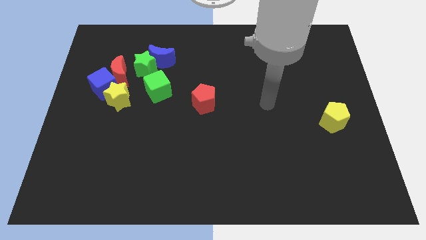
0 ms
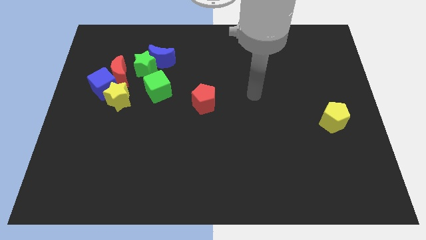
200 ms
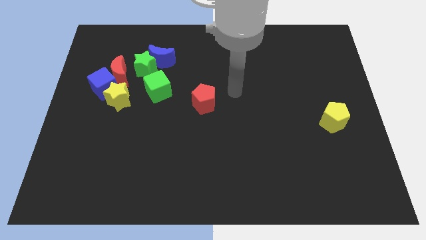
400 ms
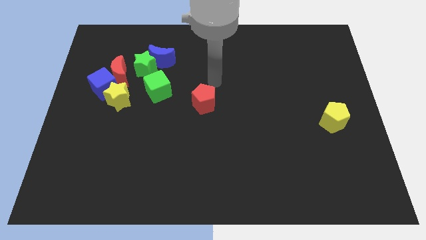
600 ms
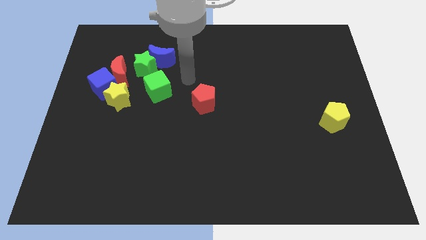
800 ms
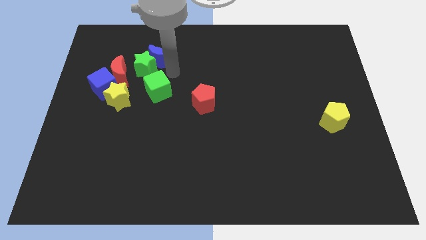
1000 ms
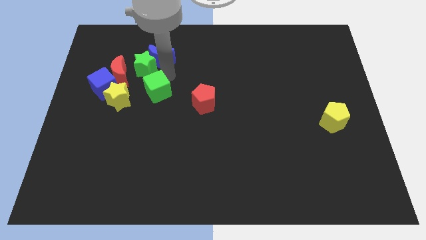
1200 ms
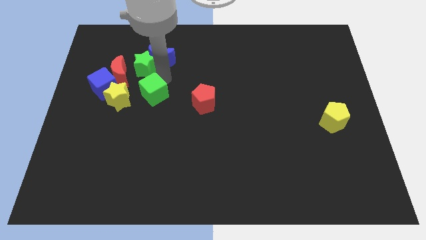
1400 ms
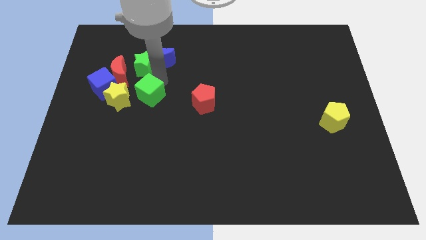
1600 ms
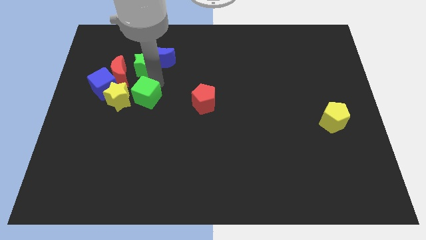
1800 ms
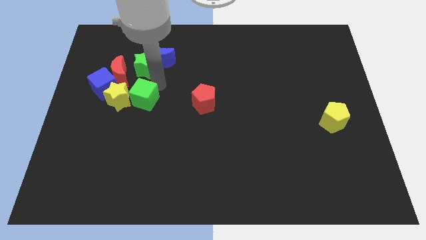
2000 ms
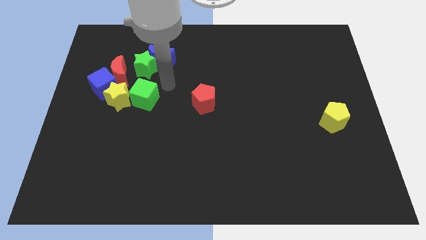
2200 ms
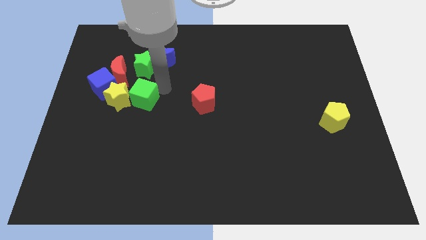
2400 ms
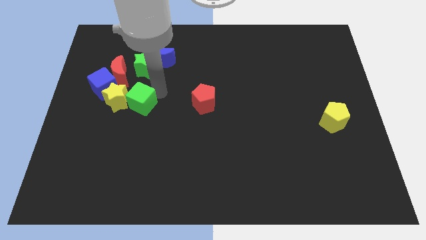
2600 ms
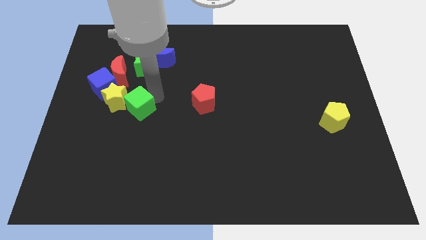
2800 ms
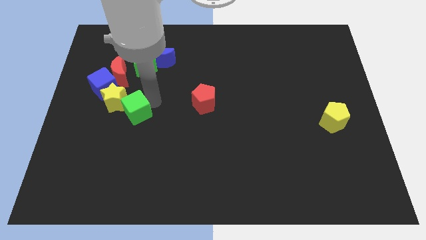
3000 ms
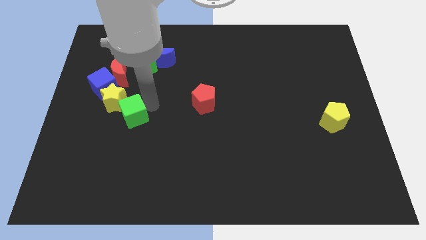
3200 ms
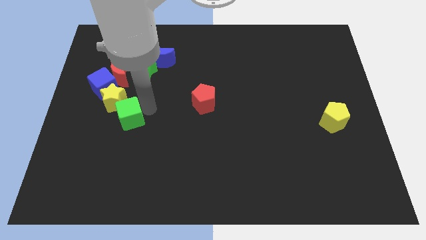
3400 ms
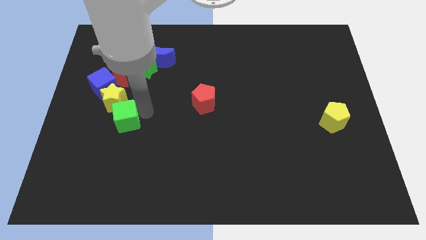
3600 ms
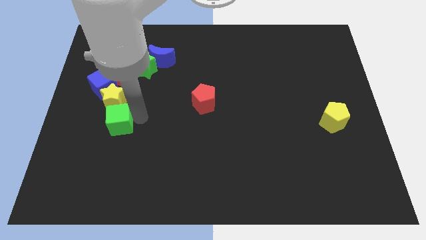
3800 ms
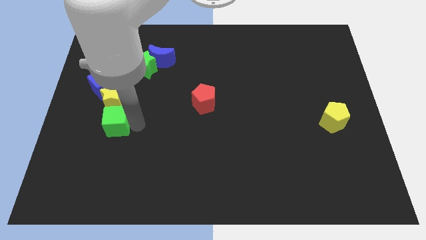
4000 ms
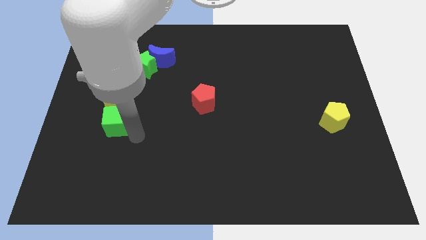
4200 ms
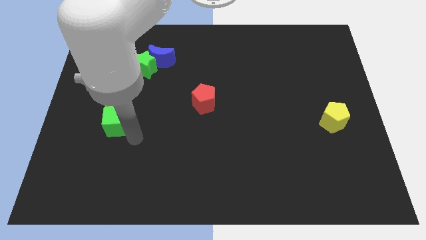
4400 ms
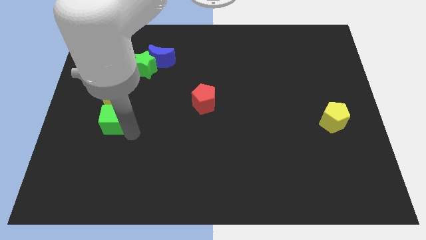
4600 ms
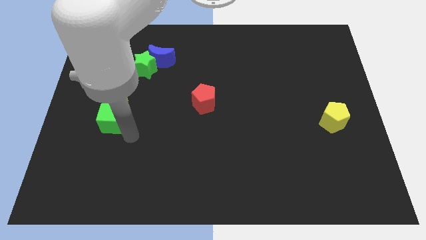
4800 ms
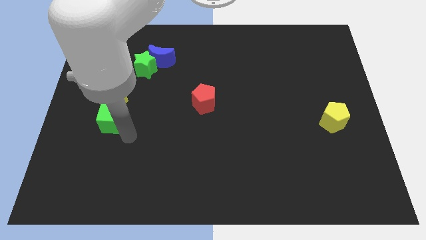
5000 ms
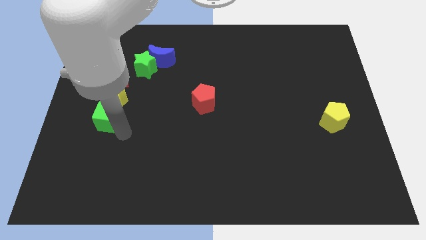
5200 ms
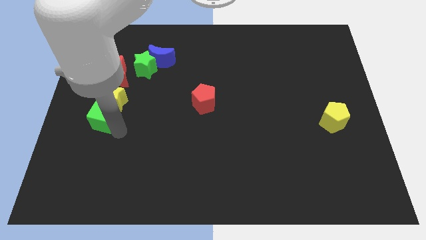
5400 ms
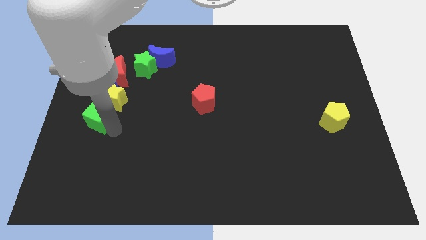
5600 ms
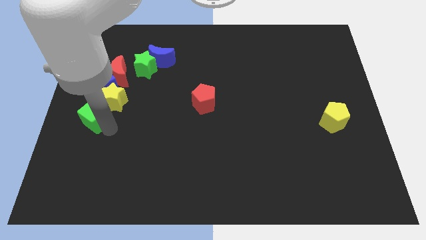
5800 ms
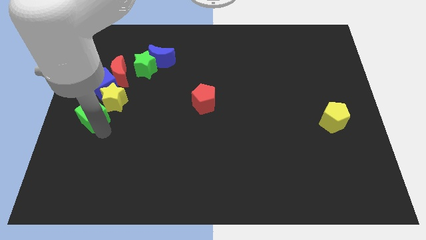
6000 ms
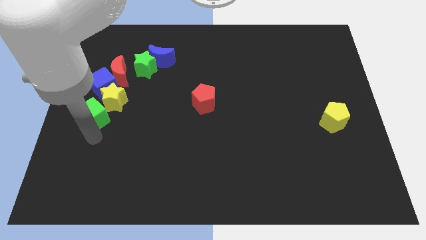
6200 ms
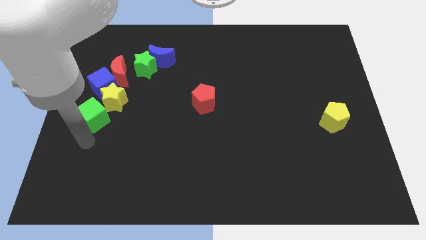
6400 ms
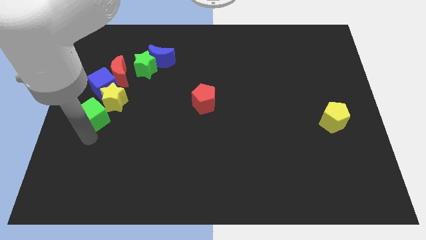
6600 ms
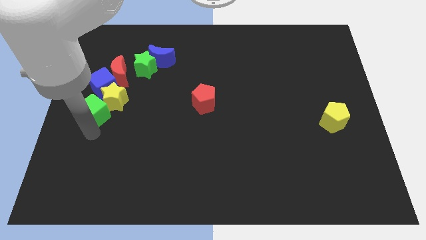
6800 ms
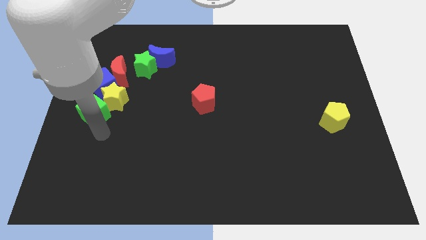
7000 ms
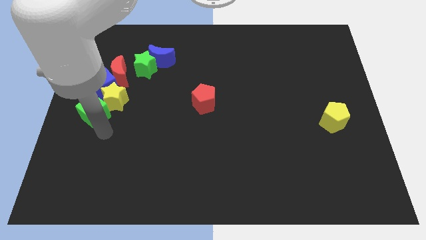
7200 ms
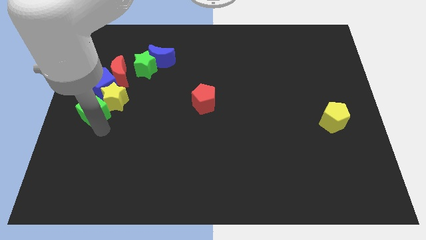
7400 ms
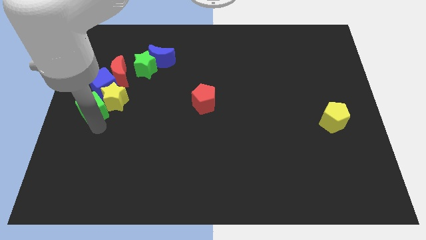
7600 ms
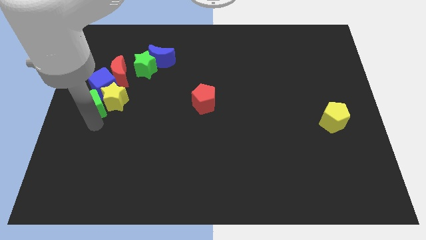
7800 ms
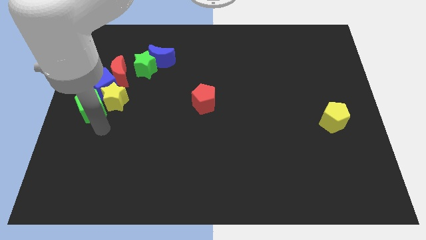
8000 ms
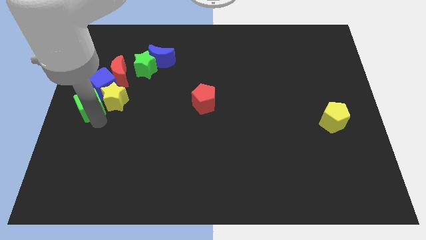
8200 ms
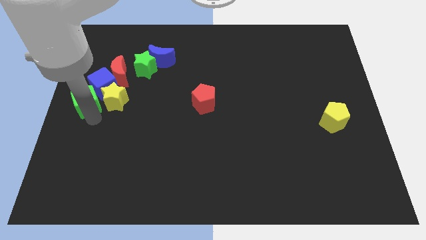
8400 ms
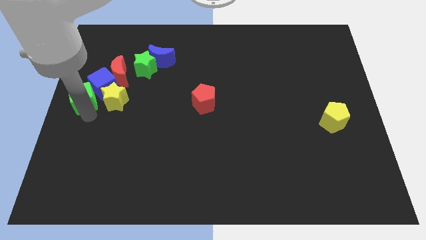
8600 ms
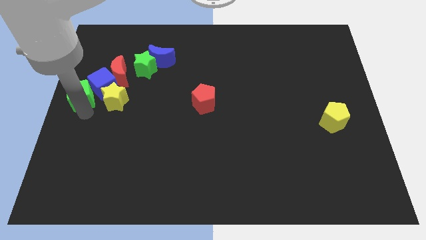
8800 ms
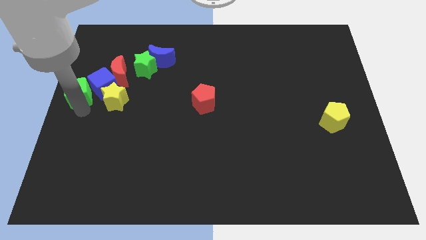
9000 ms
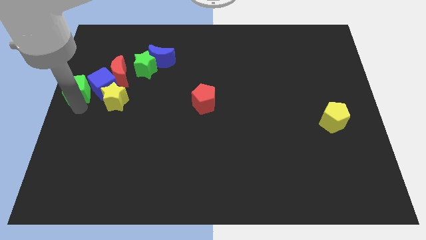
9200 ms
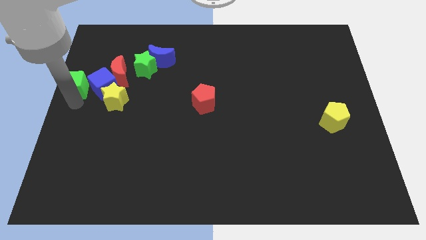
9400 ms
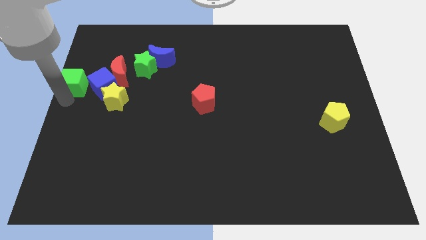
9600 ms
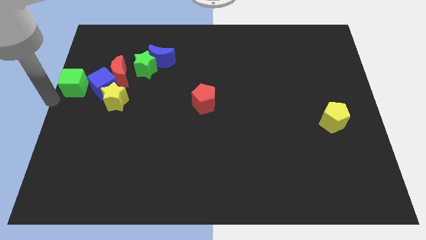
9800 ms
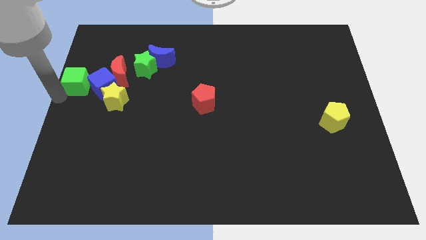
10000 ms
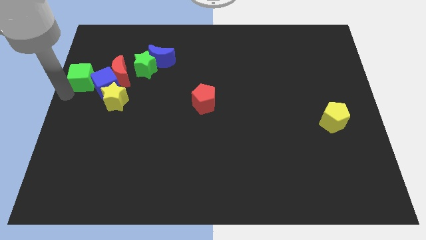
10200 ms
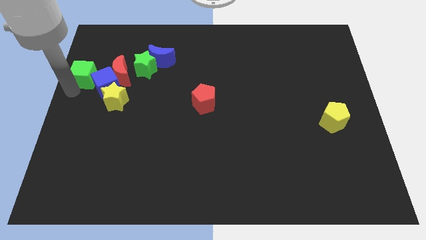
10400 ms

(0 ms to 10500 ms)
slide the green cube to the left of the green star

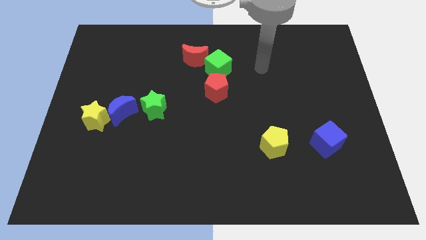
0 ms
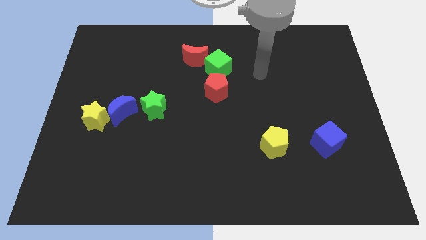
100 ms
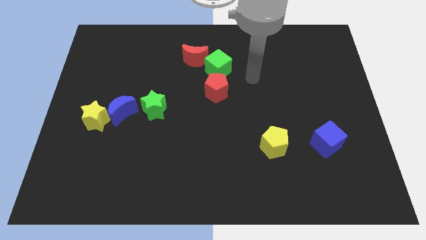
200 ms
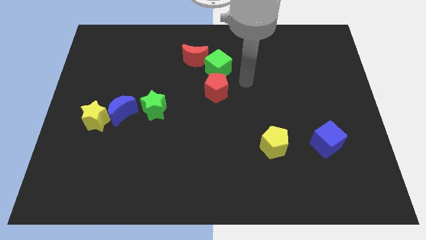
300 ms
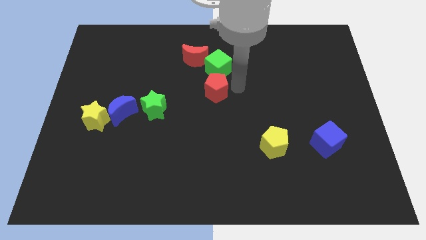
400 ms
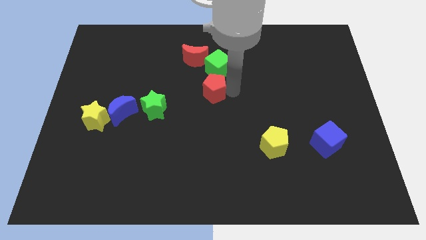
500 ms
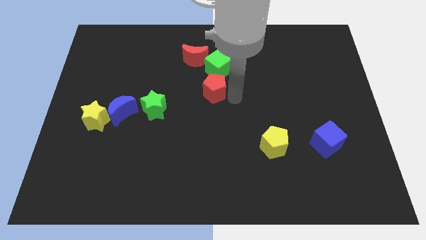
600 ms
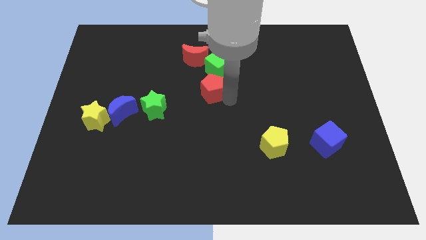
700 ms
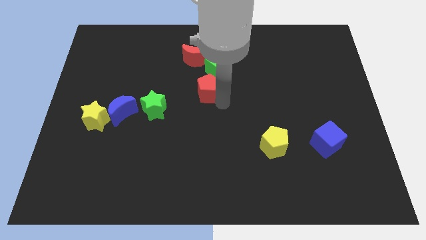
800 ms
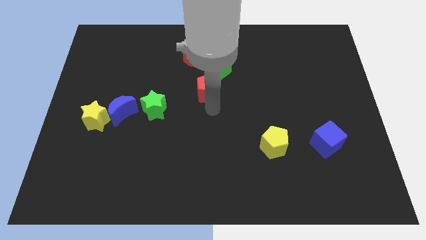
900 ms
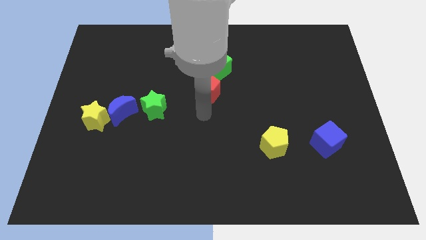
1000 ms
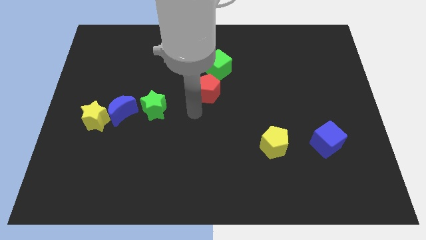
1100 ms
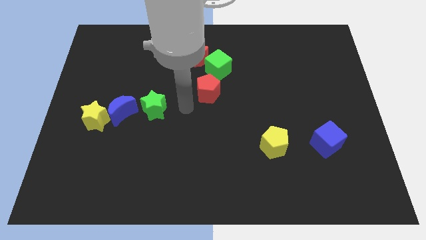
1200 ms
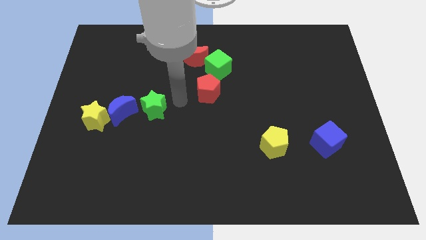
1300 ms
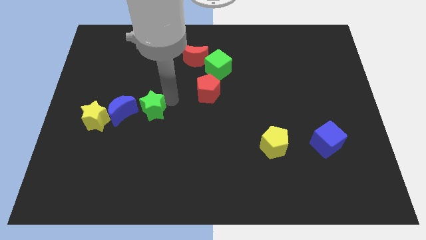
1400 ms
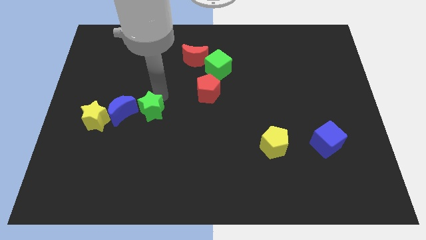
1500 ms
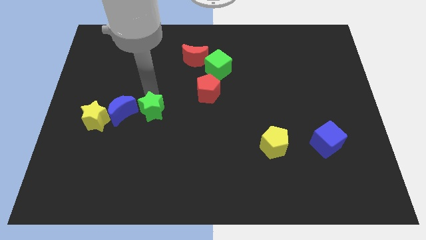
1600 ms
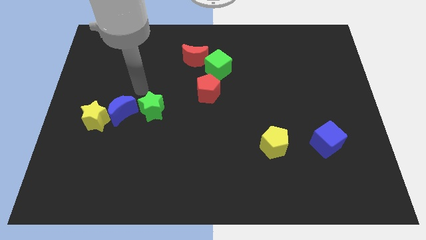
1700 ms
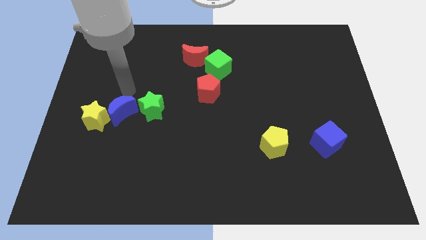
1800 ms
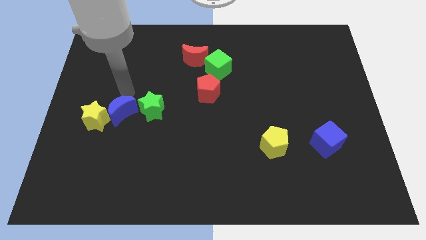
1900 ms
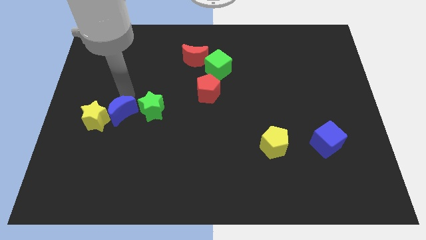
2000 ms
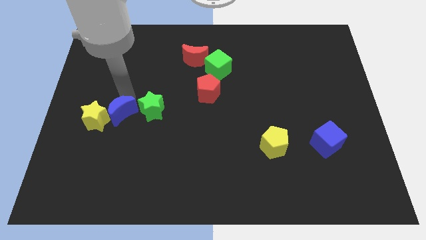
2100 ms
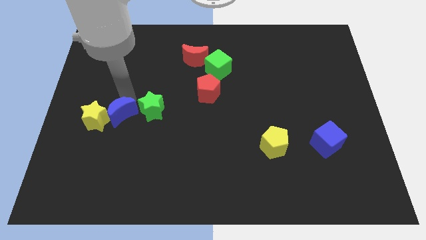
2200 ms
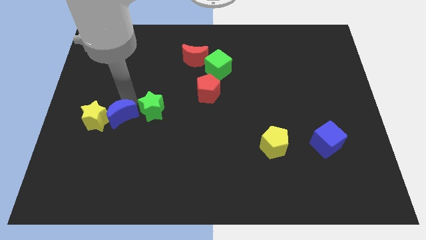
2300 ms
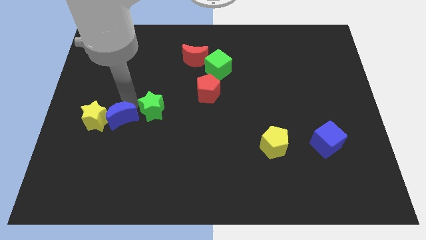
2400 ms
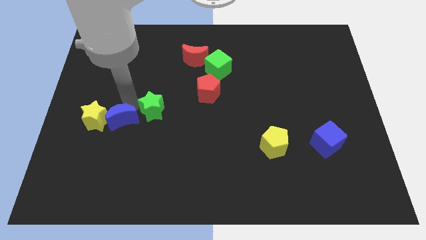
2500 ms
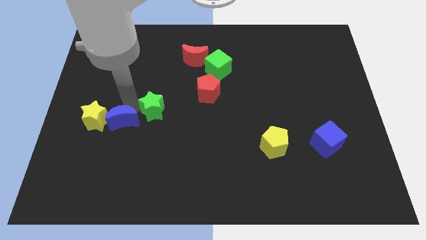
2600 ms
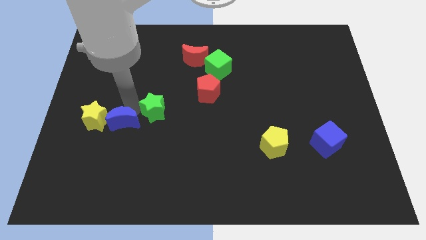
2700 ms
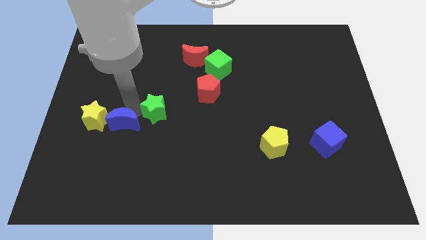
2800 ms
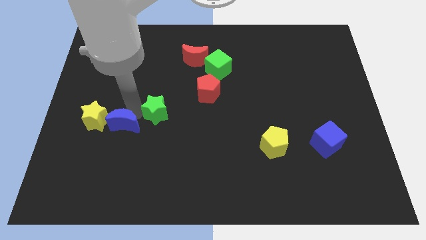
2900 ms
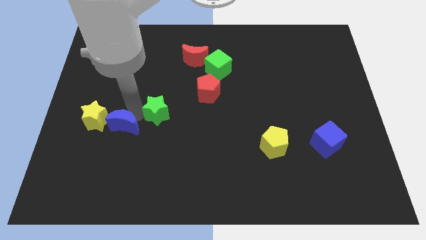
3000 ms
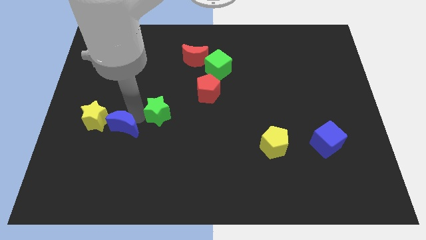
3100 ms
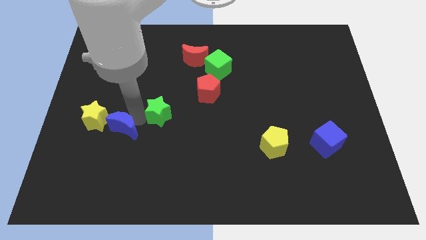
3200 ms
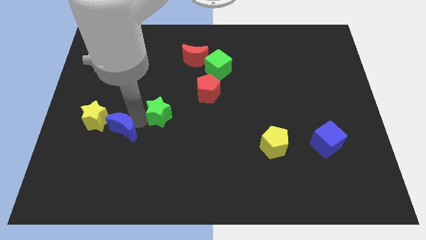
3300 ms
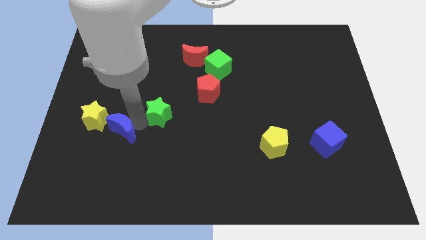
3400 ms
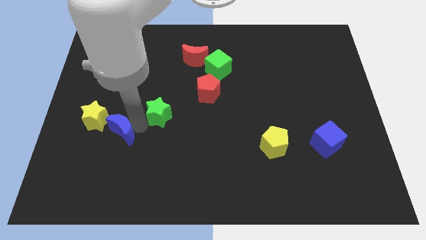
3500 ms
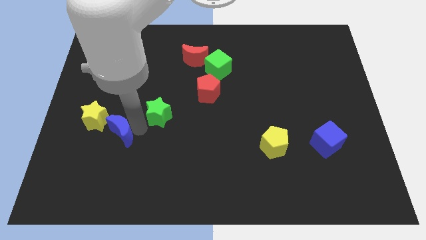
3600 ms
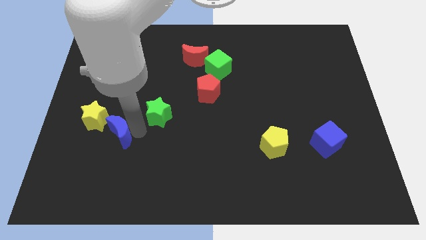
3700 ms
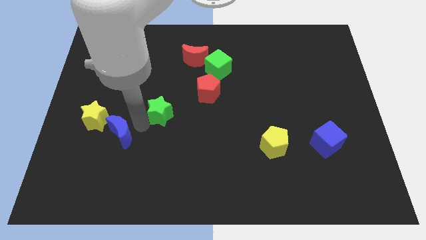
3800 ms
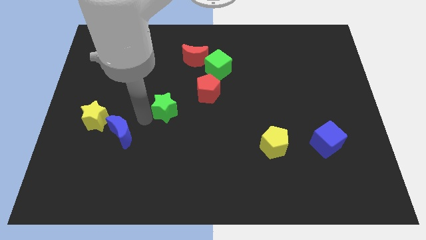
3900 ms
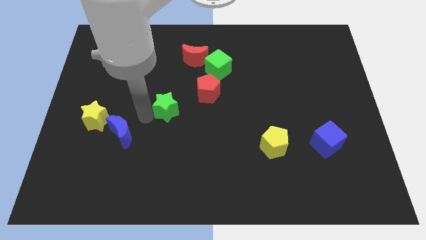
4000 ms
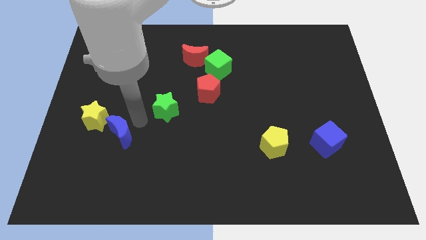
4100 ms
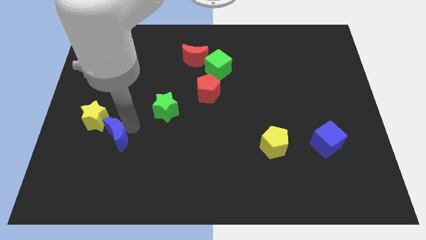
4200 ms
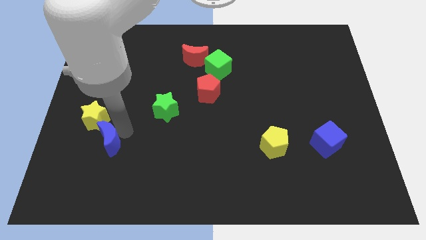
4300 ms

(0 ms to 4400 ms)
move the blue moon to the bottom of the yellow star
